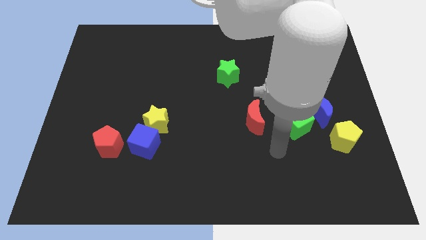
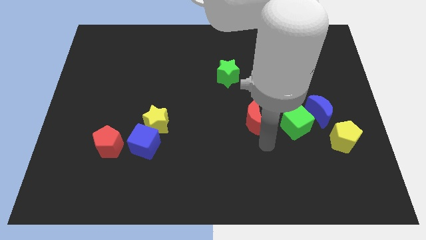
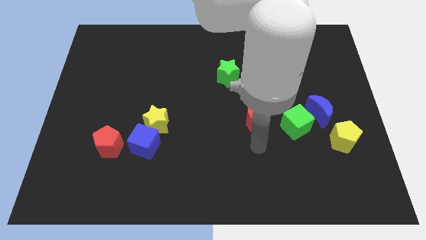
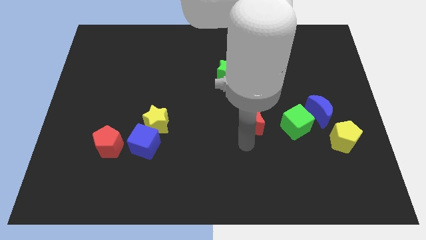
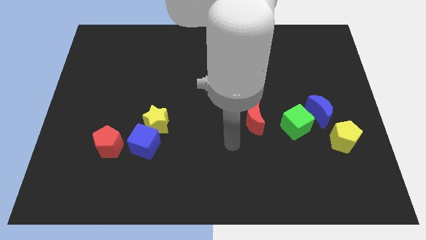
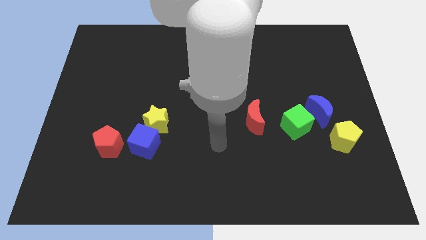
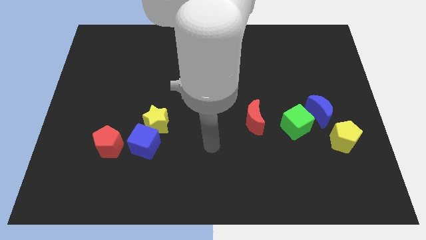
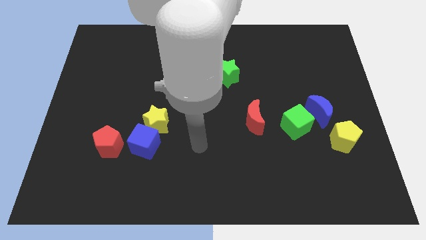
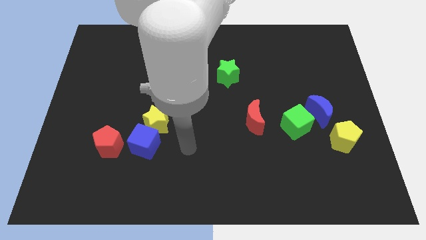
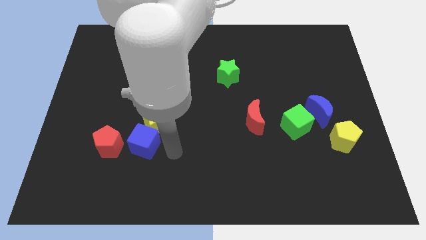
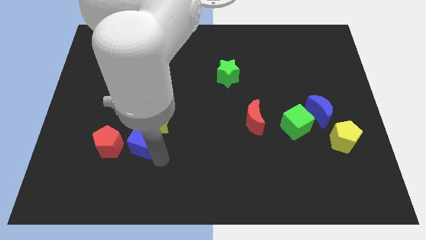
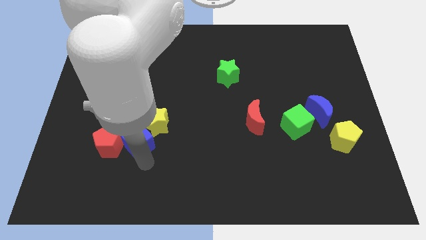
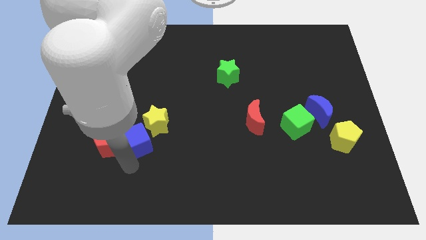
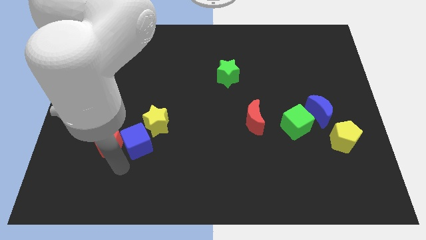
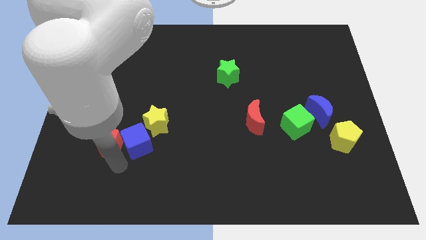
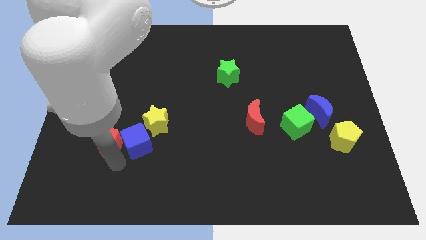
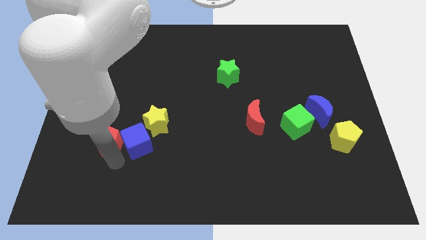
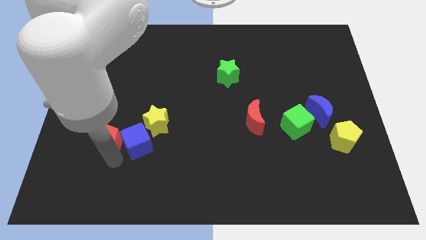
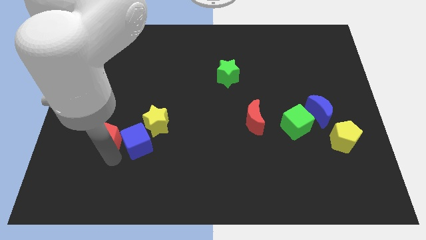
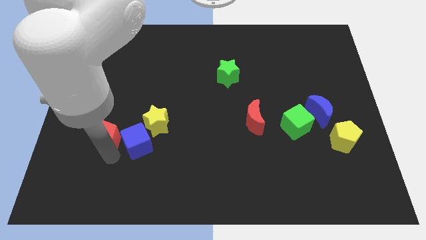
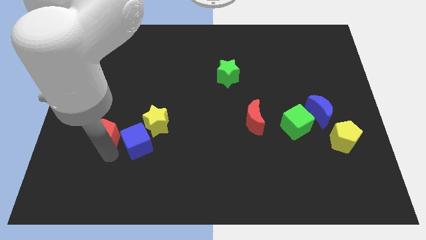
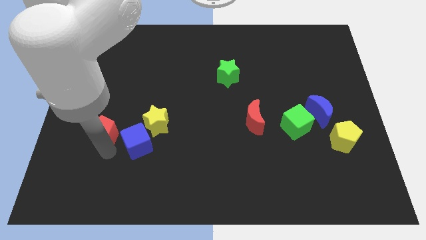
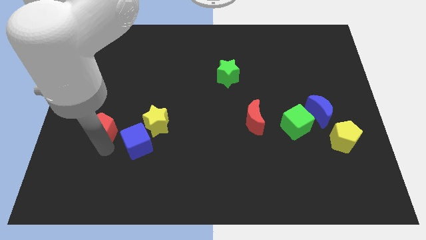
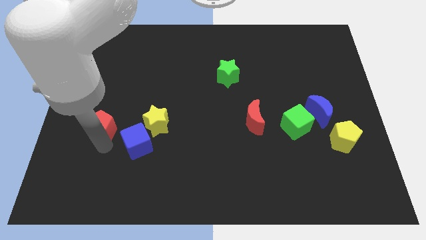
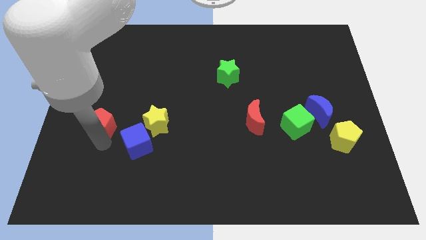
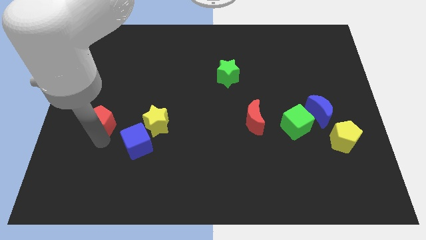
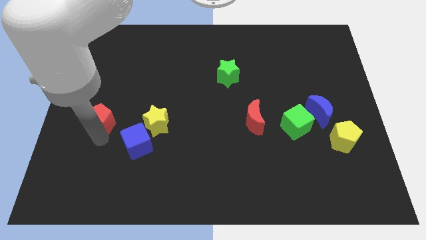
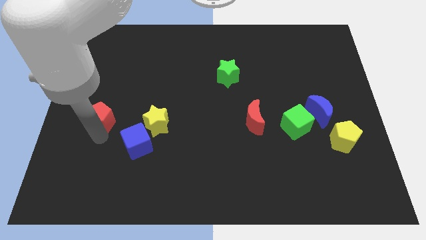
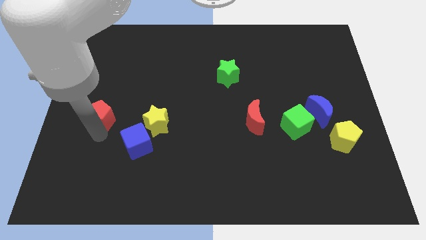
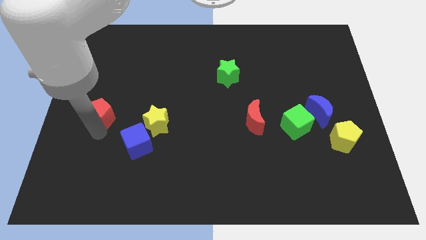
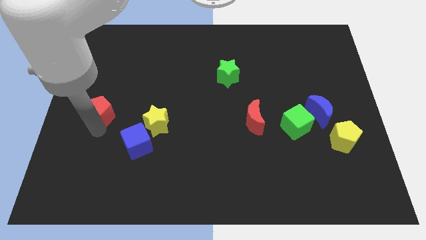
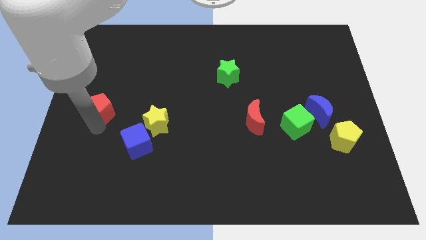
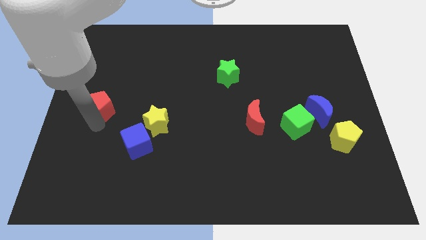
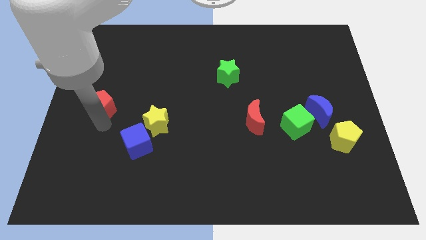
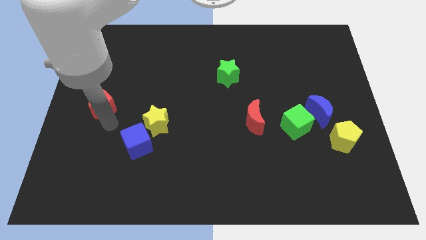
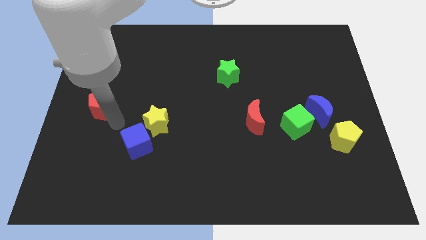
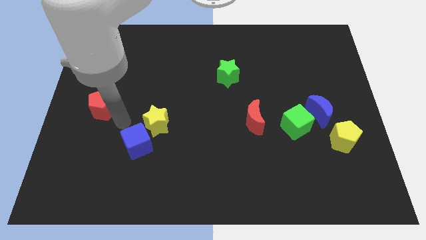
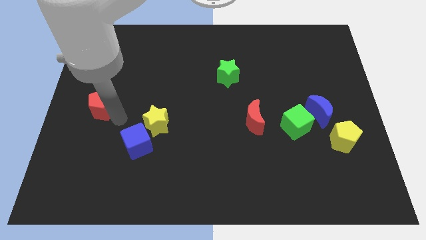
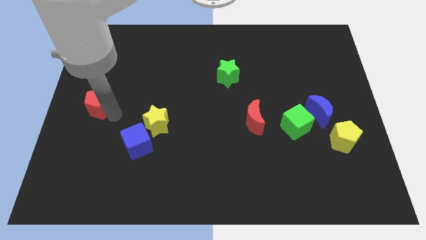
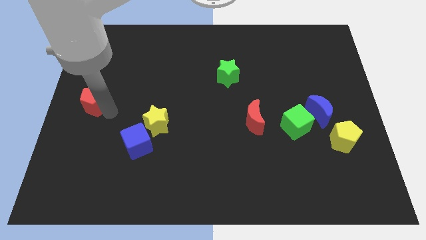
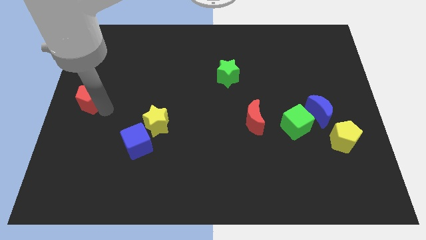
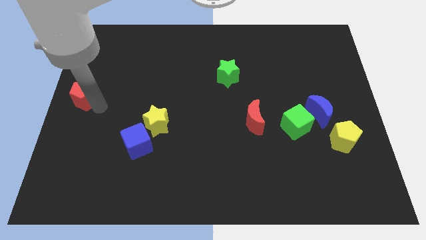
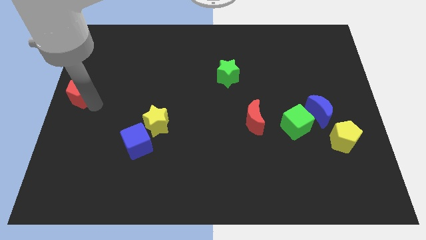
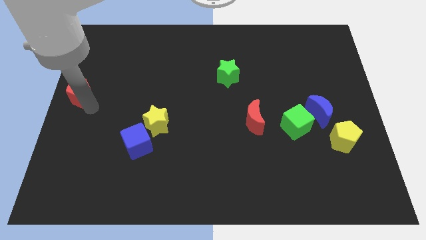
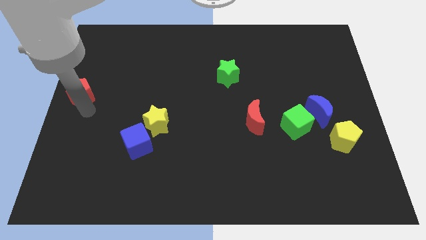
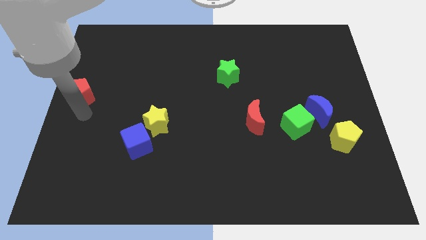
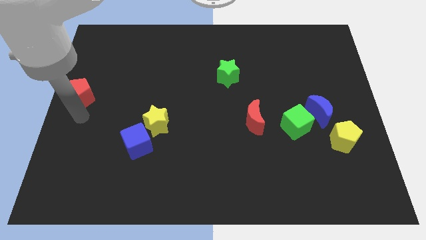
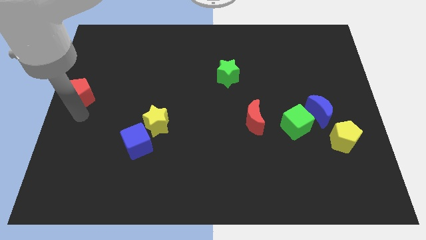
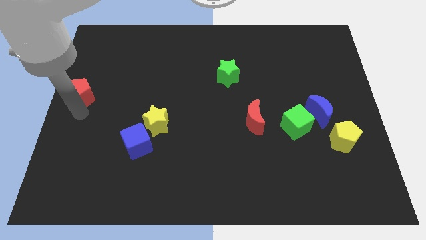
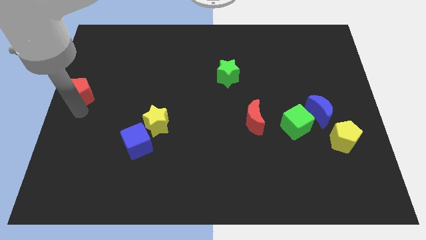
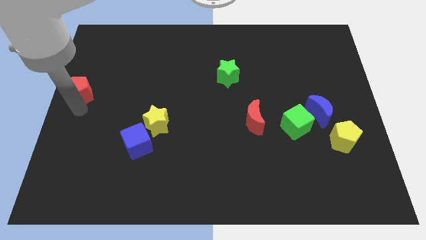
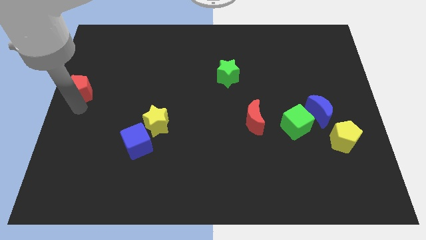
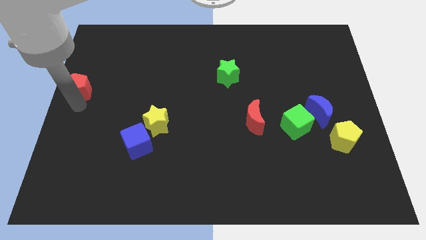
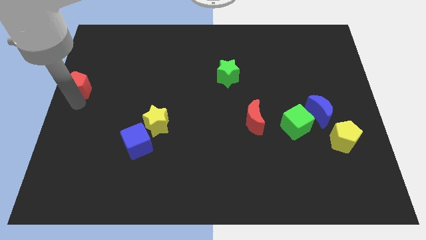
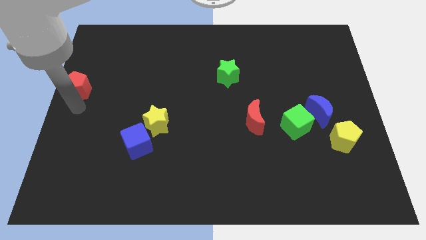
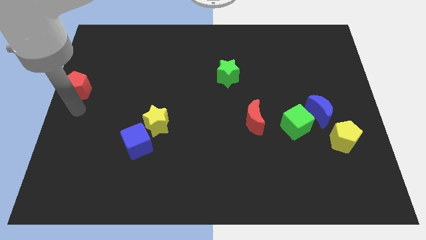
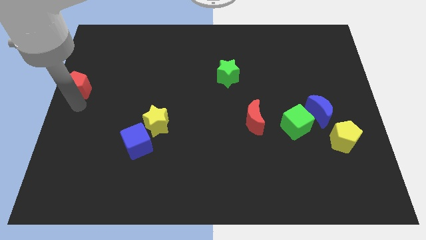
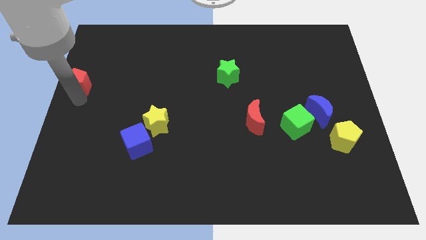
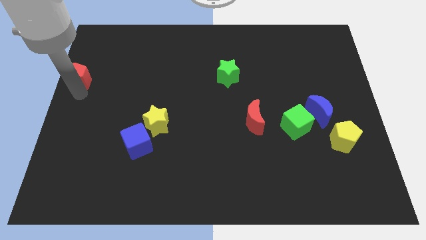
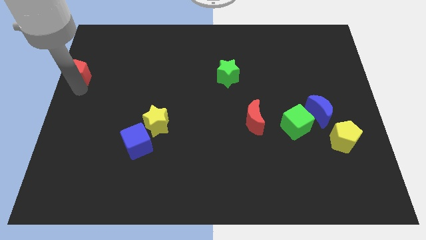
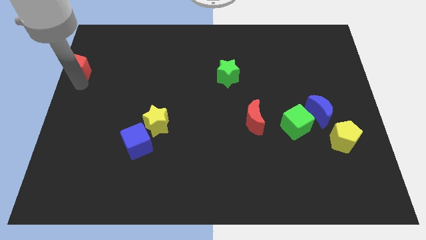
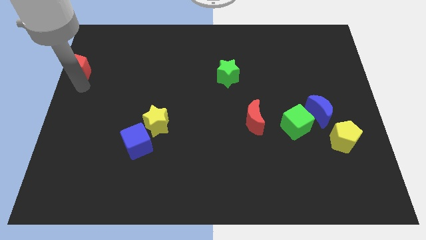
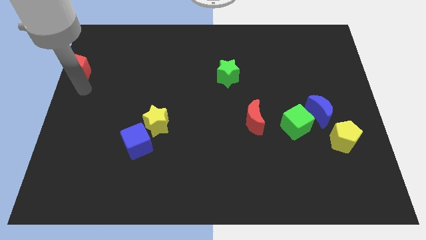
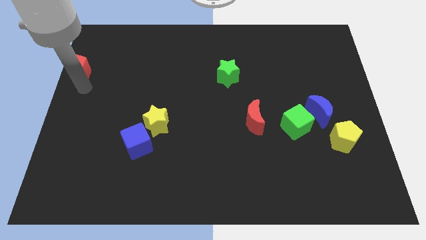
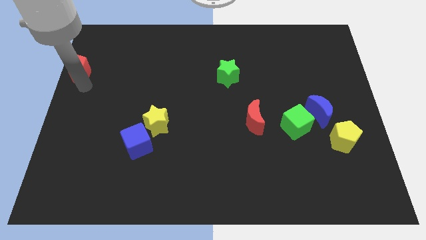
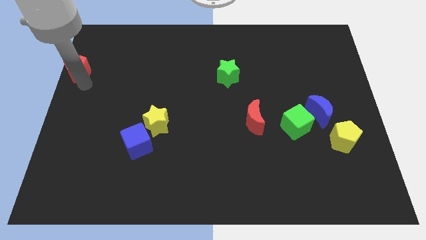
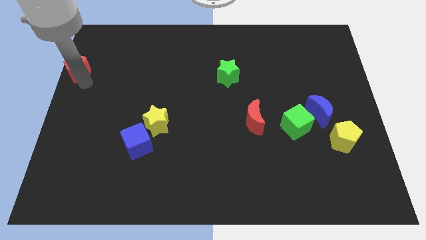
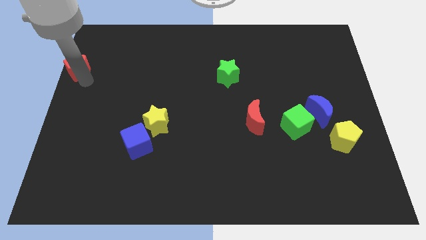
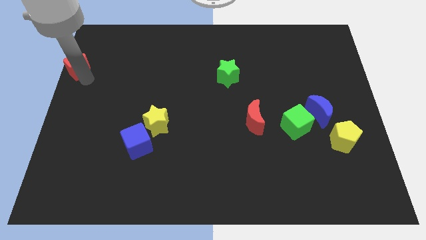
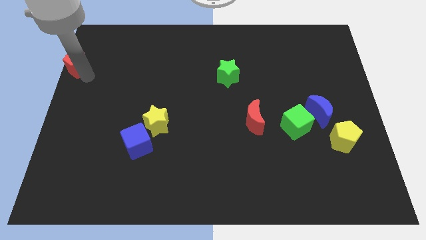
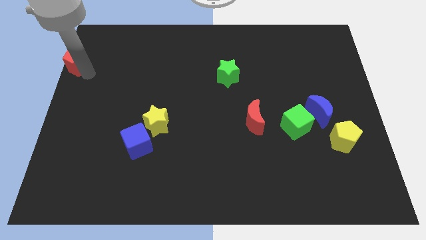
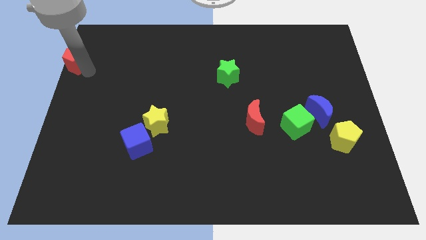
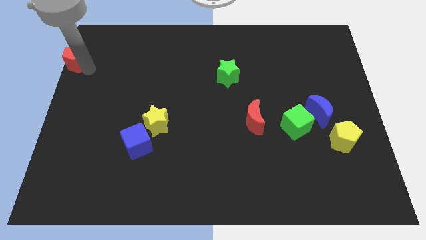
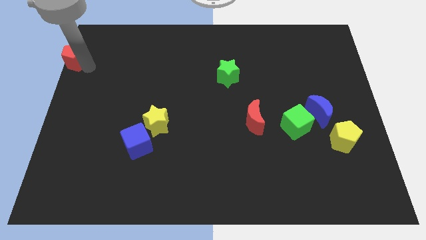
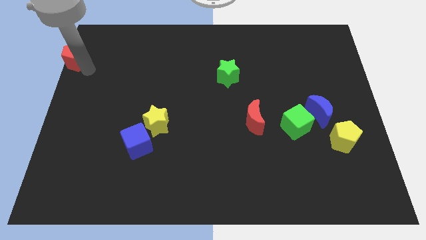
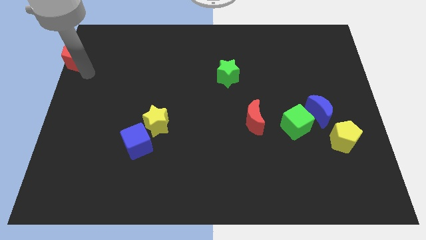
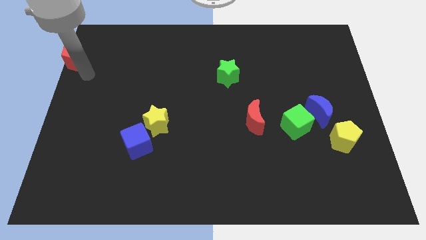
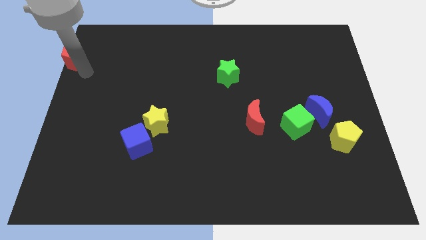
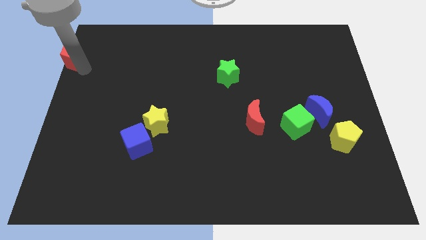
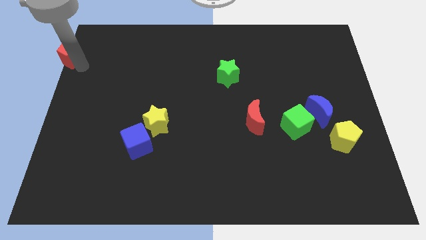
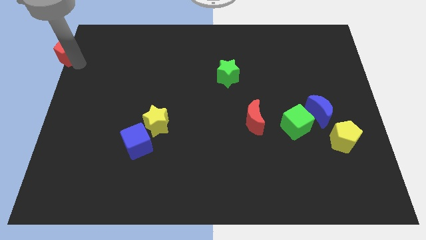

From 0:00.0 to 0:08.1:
put the red pentagon to the upper left corner
